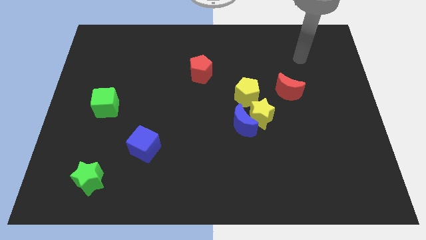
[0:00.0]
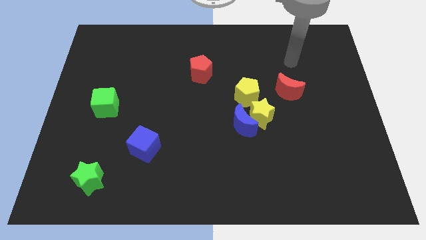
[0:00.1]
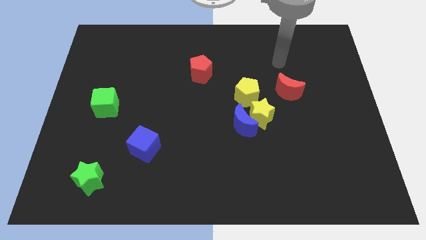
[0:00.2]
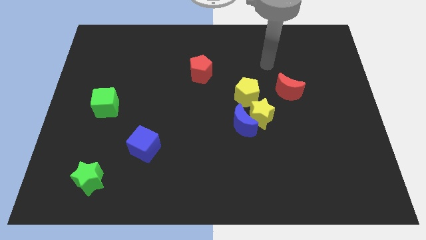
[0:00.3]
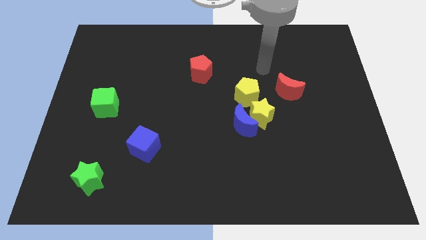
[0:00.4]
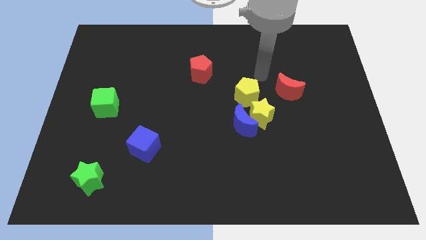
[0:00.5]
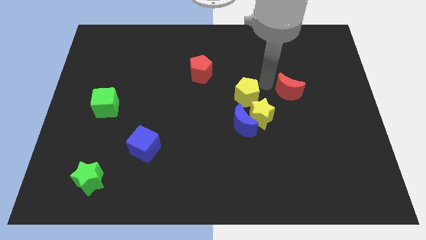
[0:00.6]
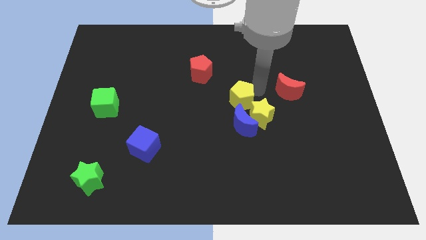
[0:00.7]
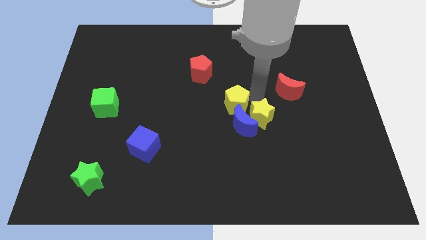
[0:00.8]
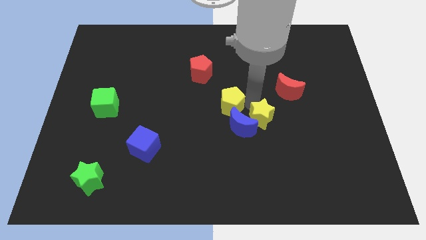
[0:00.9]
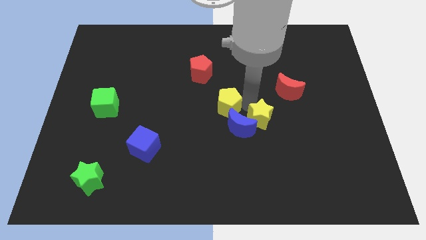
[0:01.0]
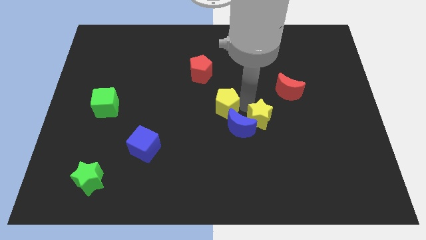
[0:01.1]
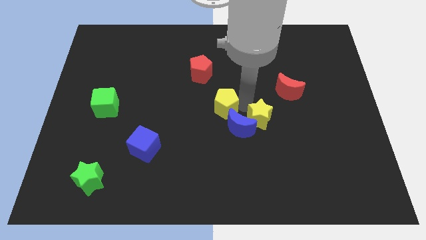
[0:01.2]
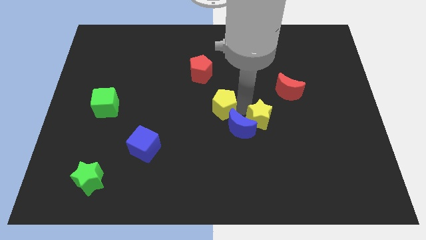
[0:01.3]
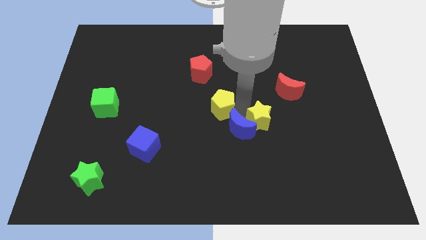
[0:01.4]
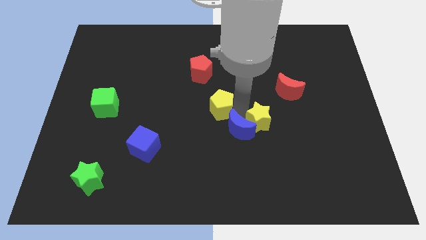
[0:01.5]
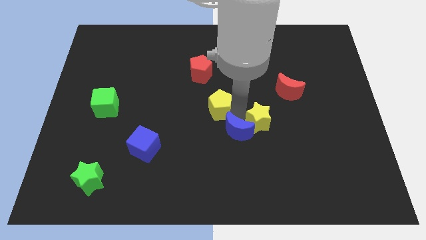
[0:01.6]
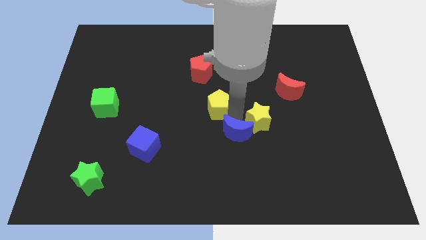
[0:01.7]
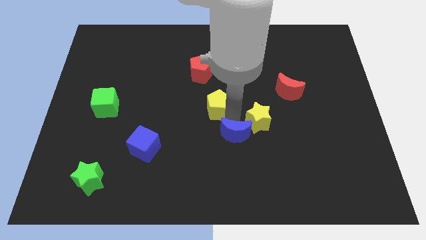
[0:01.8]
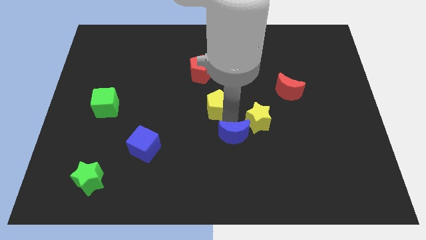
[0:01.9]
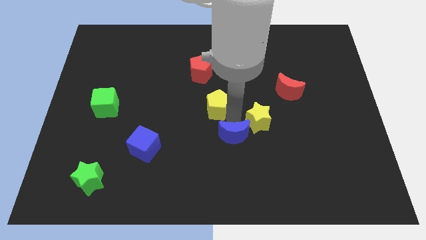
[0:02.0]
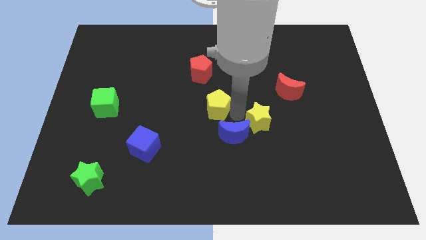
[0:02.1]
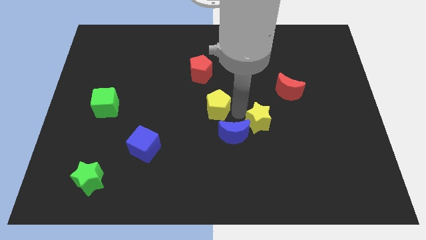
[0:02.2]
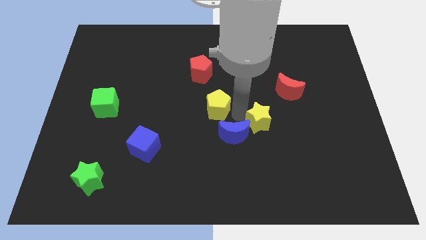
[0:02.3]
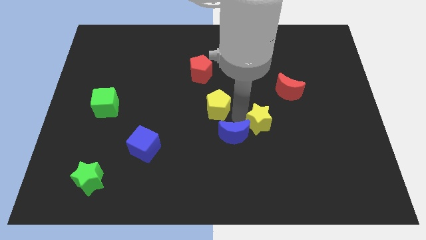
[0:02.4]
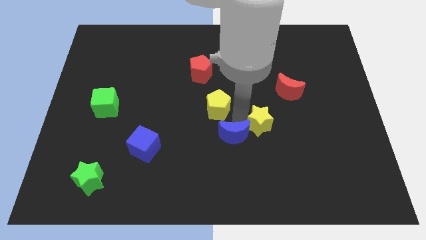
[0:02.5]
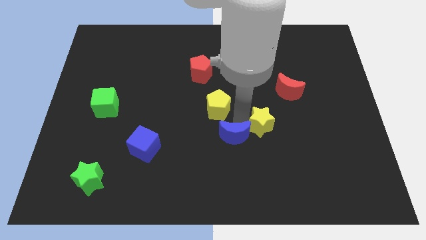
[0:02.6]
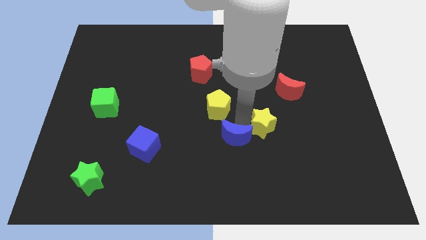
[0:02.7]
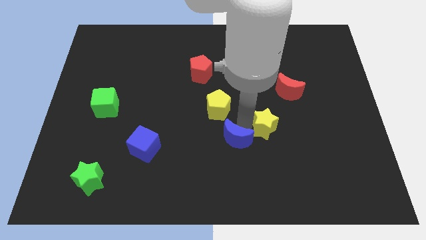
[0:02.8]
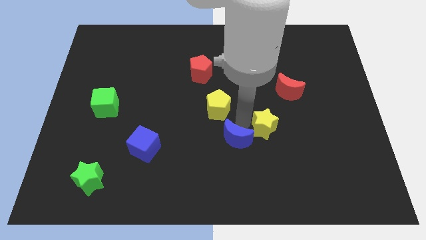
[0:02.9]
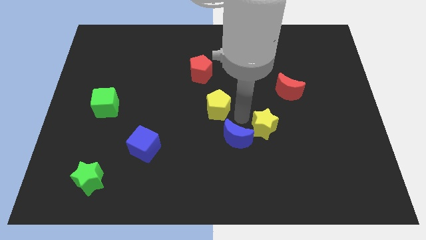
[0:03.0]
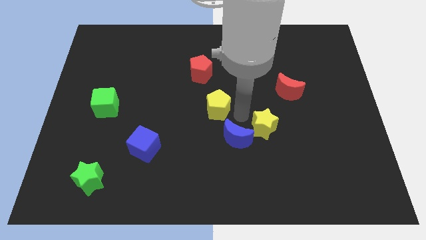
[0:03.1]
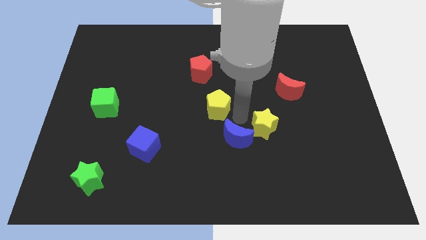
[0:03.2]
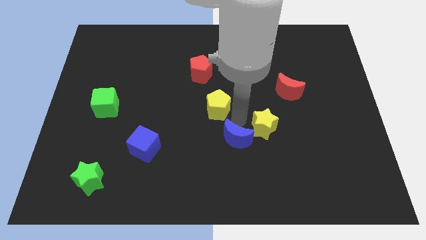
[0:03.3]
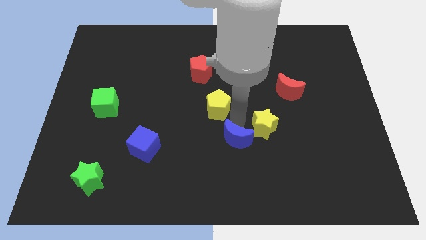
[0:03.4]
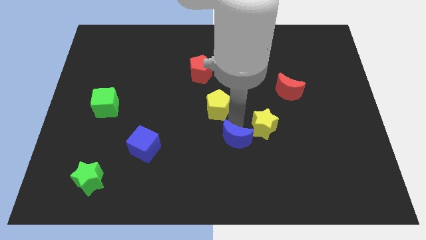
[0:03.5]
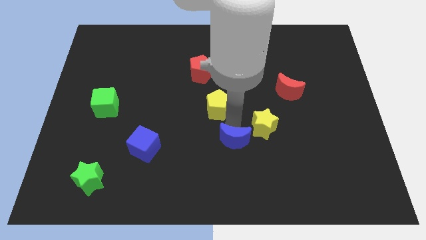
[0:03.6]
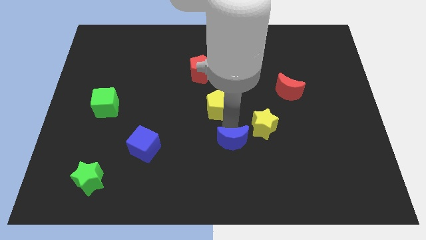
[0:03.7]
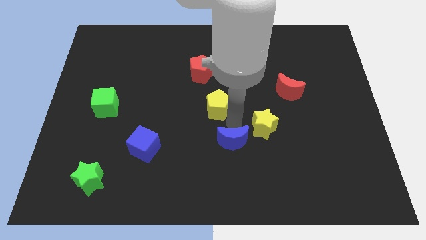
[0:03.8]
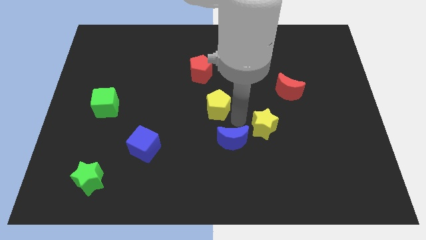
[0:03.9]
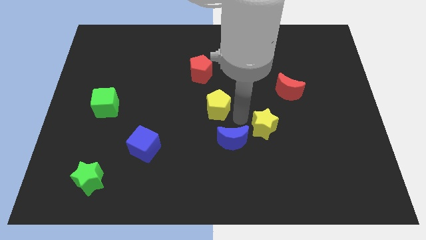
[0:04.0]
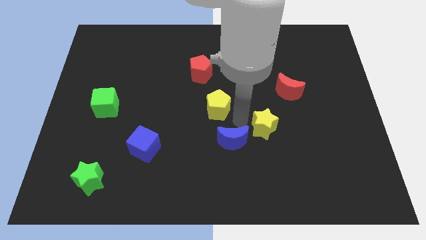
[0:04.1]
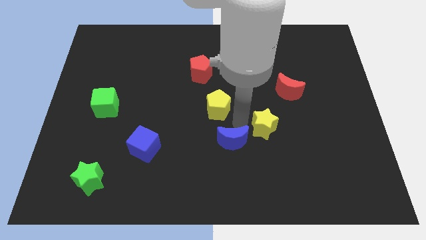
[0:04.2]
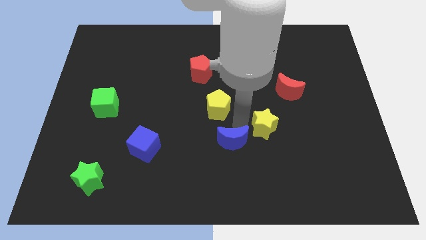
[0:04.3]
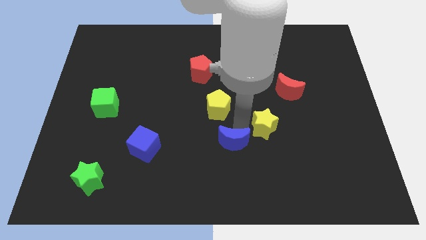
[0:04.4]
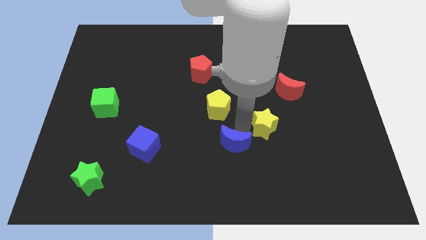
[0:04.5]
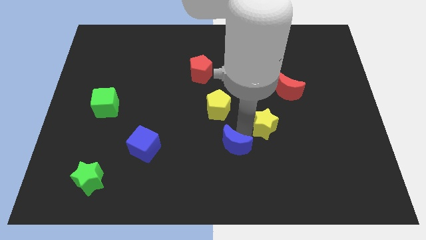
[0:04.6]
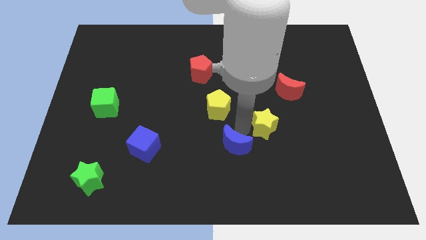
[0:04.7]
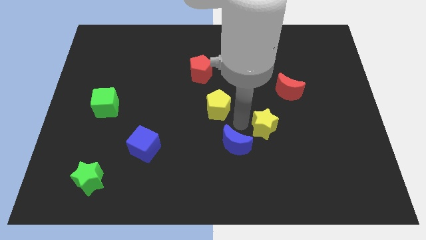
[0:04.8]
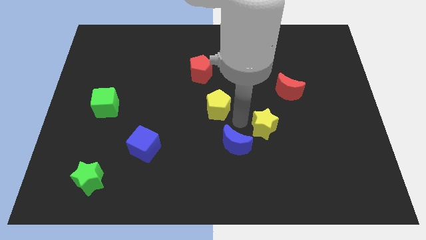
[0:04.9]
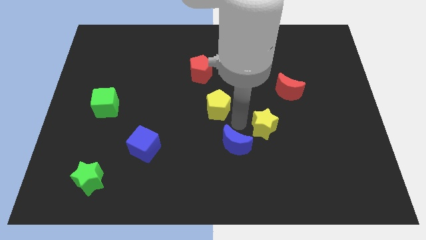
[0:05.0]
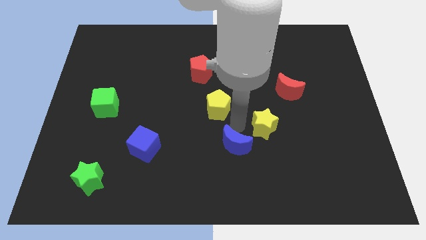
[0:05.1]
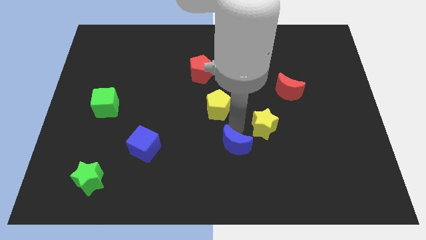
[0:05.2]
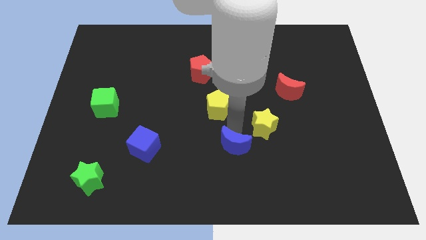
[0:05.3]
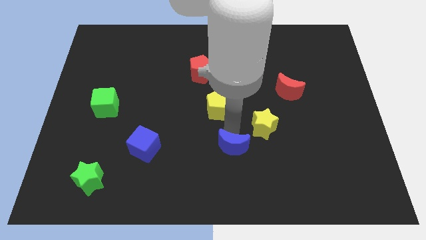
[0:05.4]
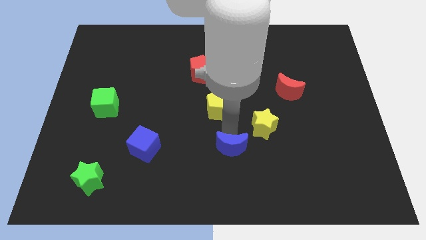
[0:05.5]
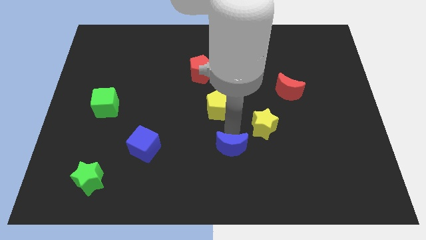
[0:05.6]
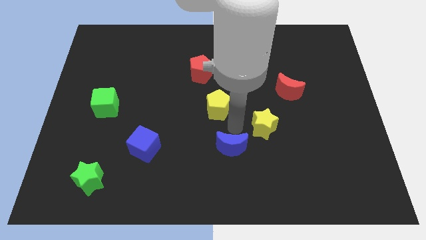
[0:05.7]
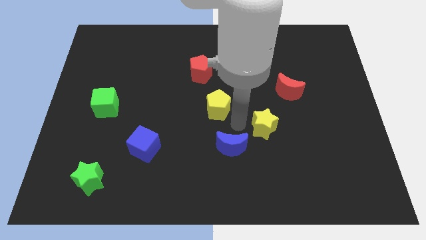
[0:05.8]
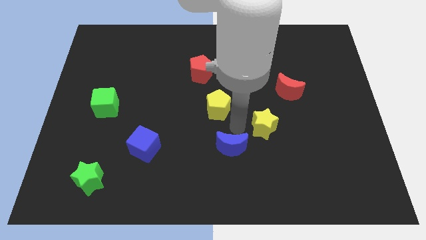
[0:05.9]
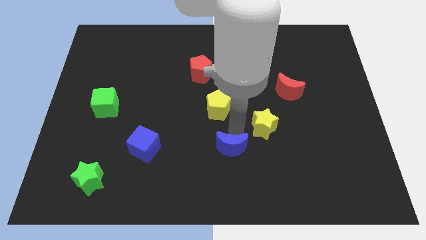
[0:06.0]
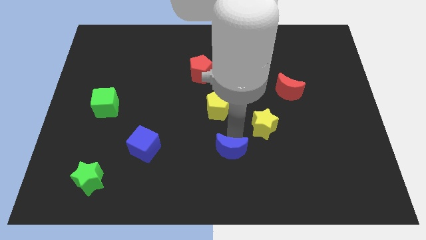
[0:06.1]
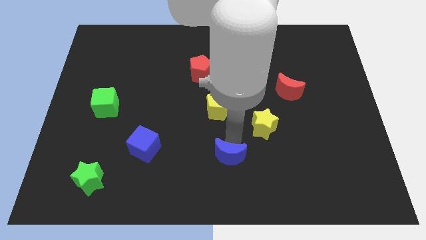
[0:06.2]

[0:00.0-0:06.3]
pull the blue moon apart from the yellow star and yellow pentagon

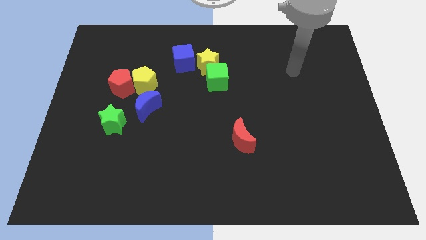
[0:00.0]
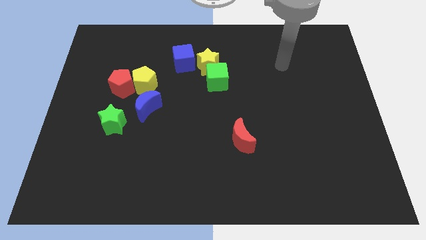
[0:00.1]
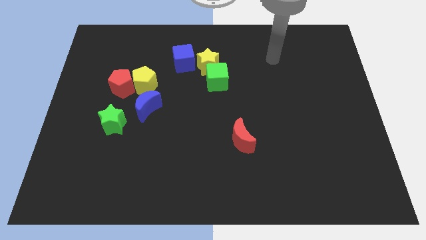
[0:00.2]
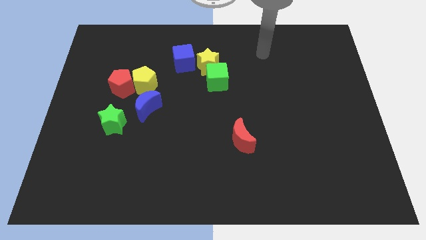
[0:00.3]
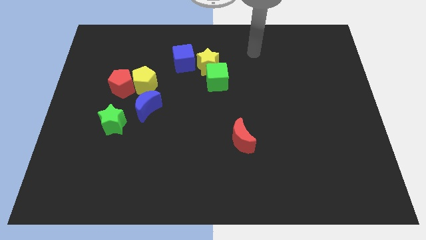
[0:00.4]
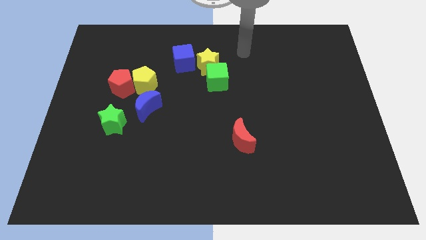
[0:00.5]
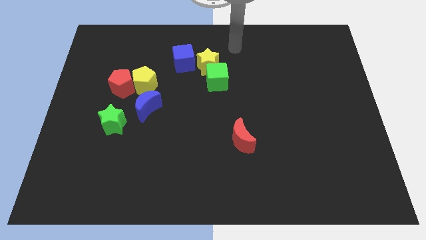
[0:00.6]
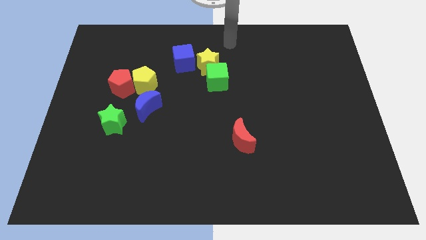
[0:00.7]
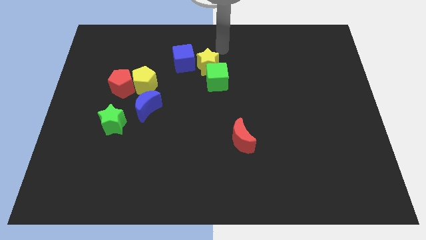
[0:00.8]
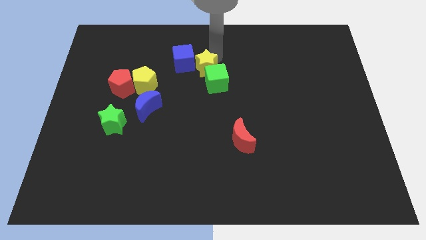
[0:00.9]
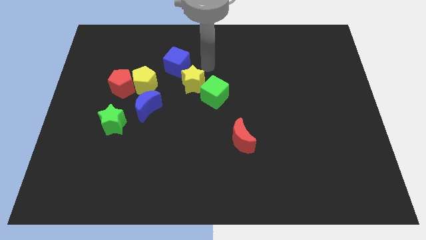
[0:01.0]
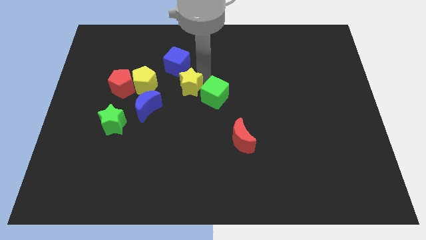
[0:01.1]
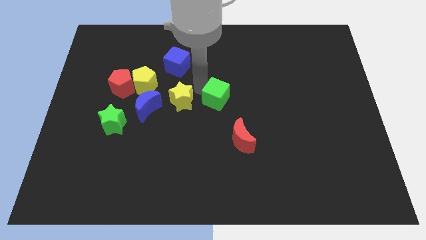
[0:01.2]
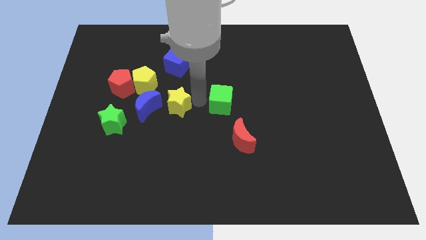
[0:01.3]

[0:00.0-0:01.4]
pull the green cube apart from the yellow star

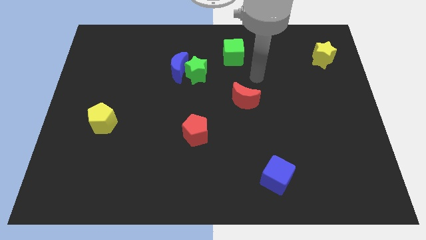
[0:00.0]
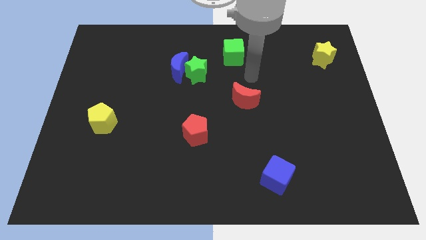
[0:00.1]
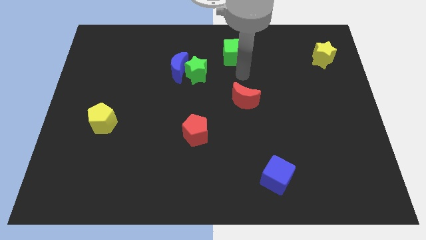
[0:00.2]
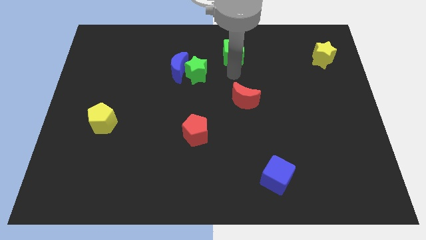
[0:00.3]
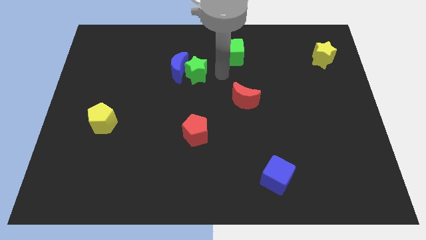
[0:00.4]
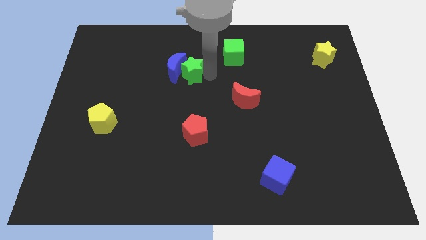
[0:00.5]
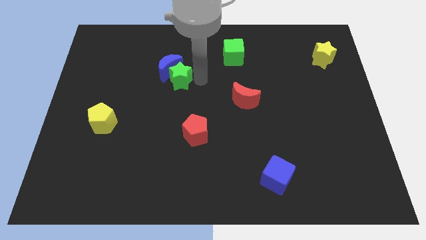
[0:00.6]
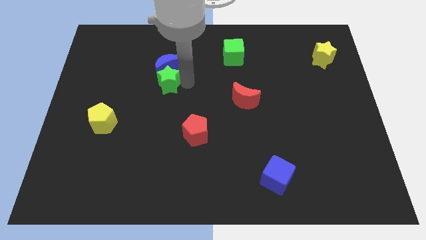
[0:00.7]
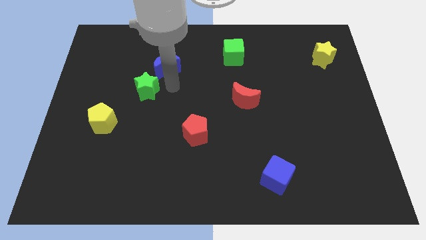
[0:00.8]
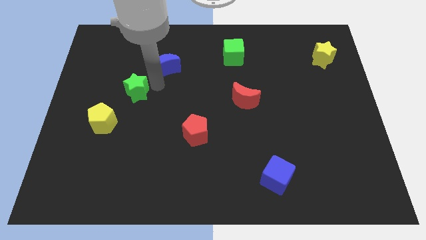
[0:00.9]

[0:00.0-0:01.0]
pull the blue moon apart from the green star

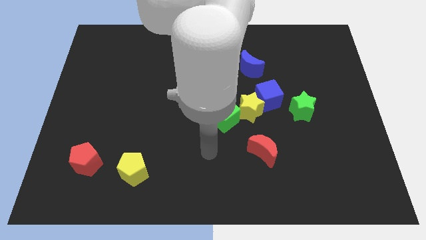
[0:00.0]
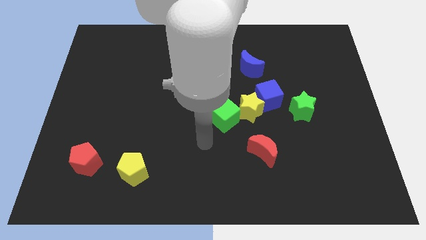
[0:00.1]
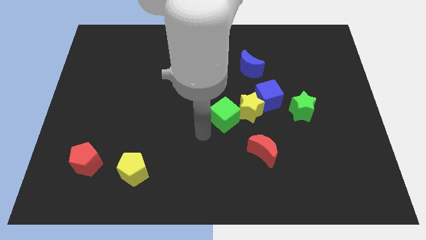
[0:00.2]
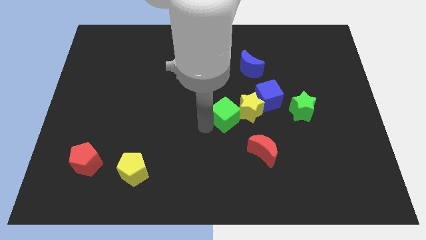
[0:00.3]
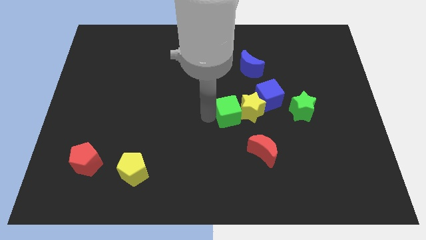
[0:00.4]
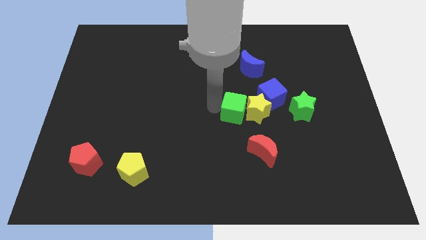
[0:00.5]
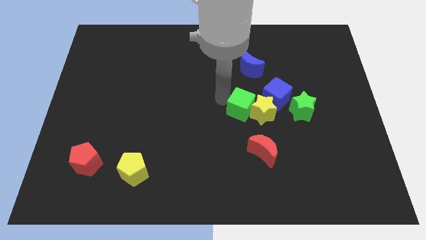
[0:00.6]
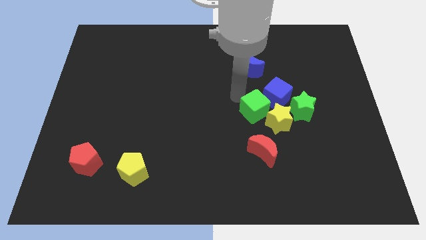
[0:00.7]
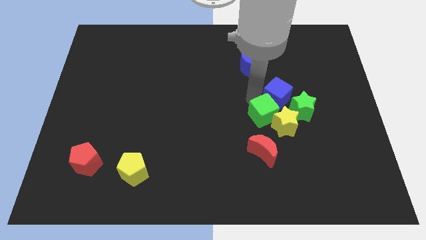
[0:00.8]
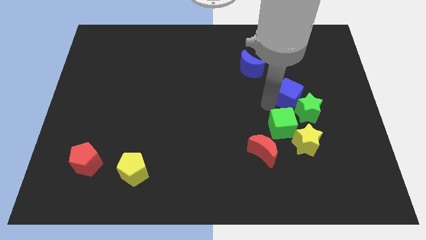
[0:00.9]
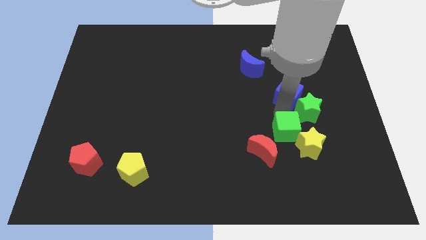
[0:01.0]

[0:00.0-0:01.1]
move the yellow star away from the blue cube and green cube
